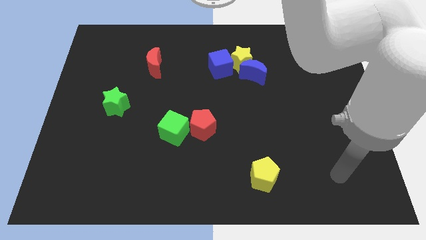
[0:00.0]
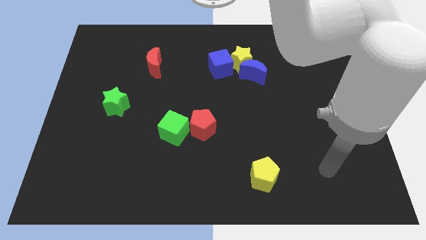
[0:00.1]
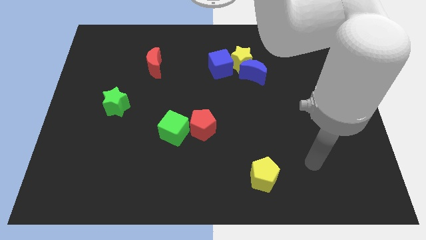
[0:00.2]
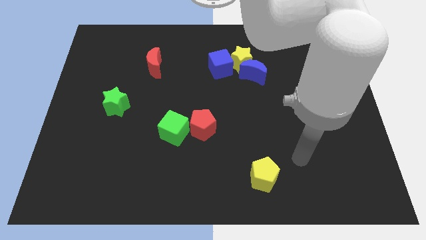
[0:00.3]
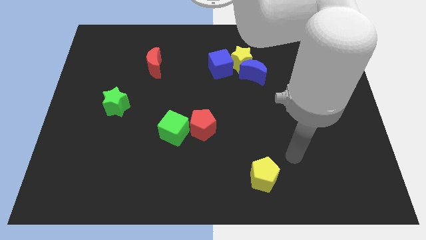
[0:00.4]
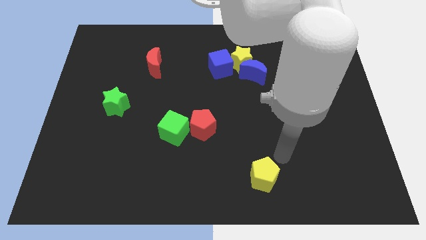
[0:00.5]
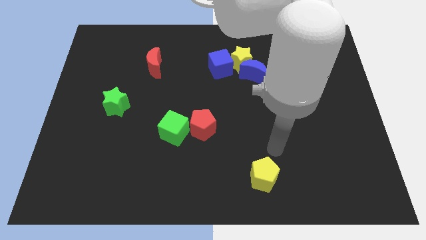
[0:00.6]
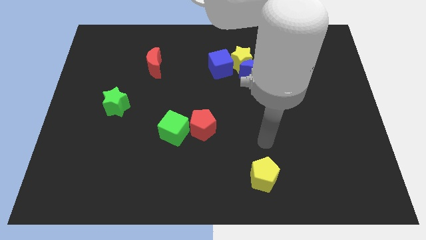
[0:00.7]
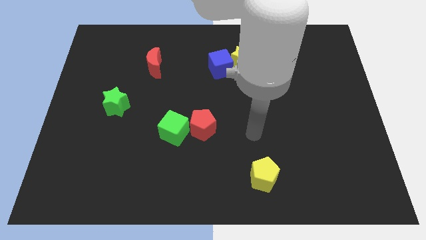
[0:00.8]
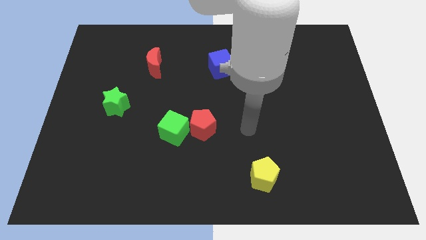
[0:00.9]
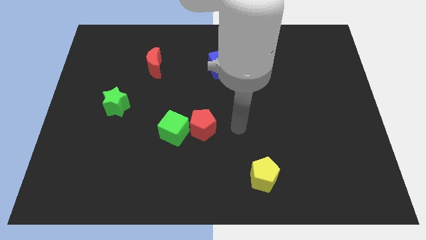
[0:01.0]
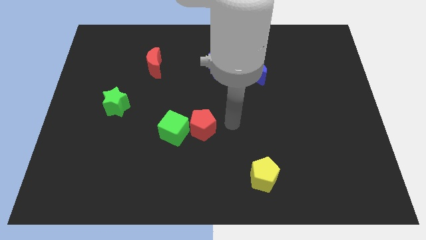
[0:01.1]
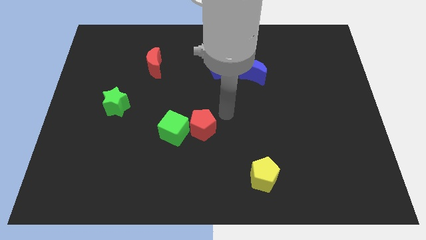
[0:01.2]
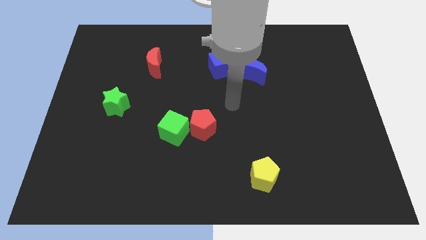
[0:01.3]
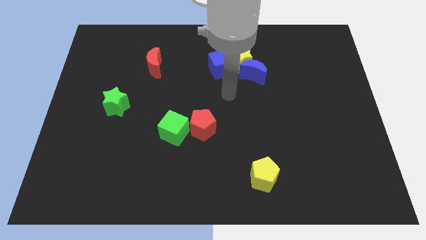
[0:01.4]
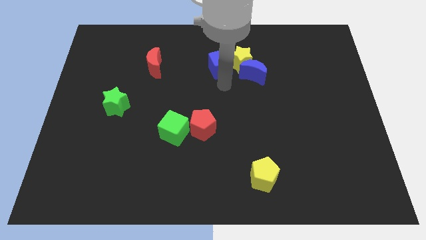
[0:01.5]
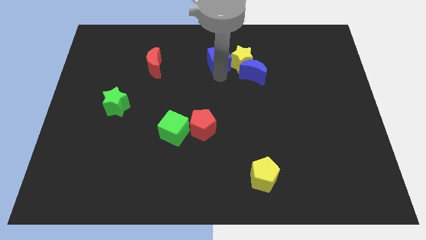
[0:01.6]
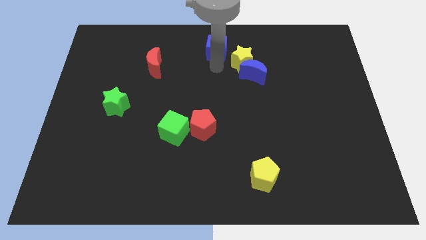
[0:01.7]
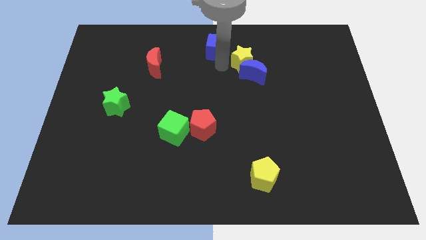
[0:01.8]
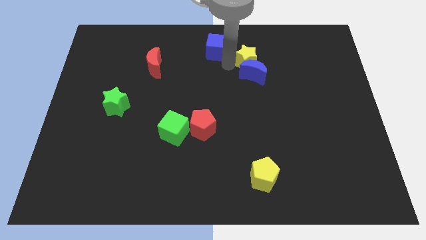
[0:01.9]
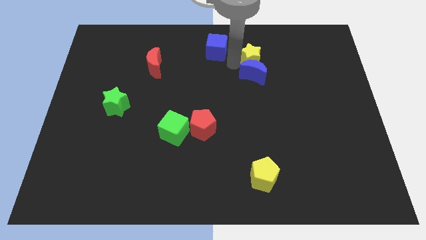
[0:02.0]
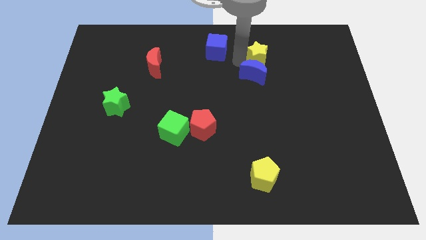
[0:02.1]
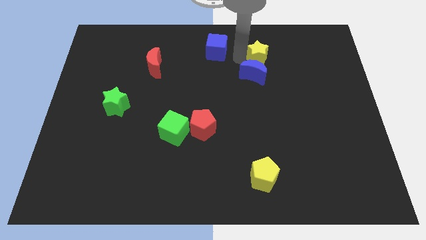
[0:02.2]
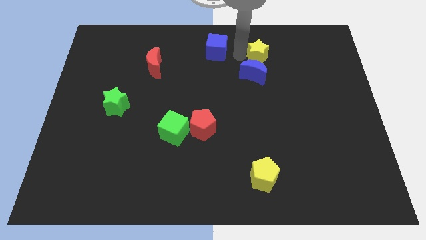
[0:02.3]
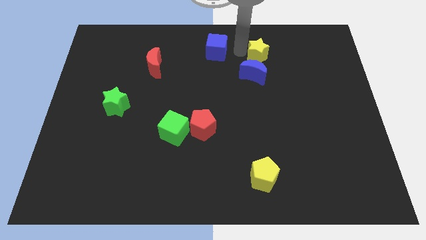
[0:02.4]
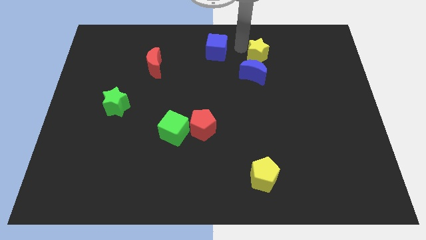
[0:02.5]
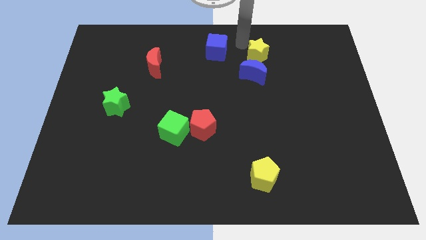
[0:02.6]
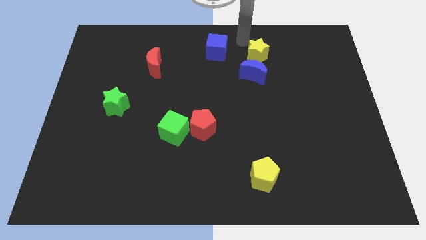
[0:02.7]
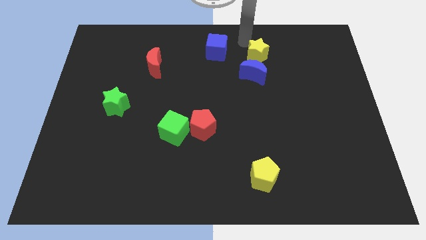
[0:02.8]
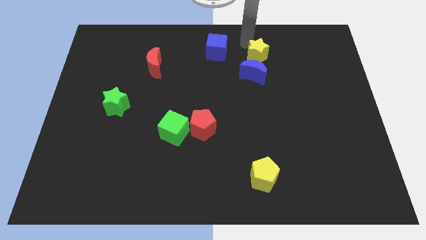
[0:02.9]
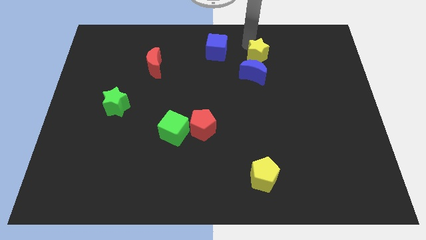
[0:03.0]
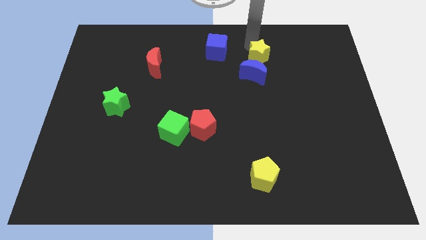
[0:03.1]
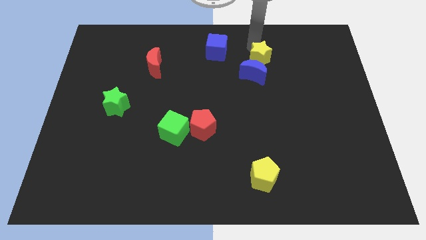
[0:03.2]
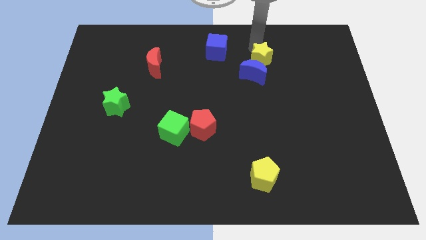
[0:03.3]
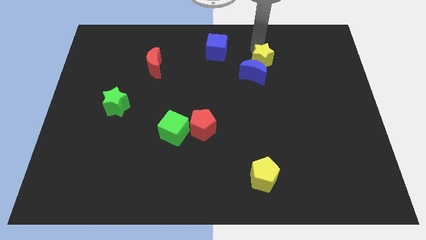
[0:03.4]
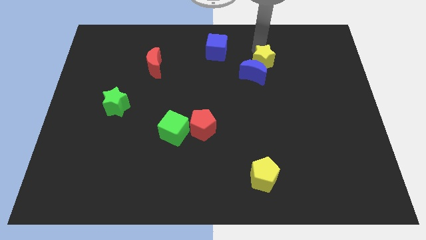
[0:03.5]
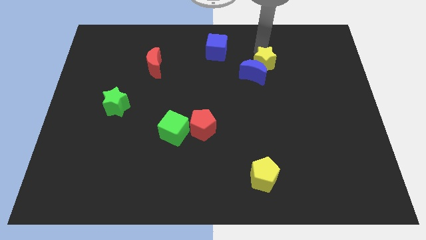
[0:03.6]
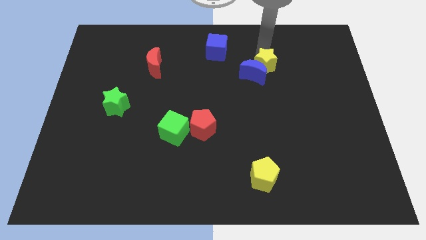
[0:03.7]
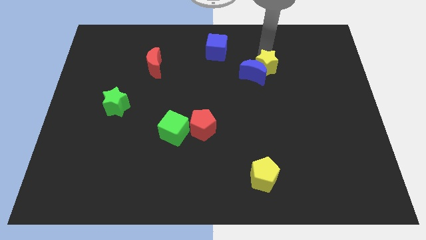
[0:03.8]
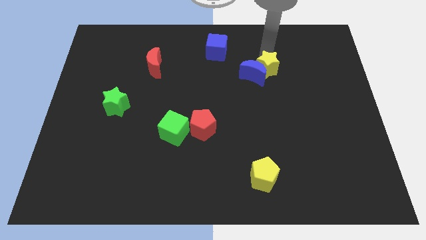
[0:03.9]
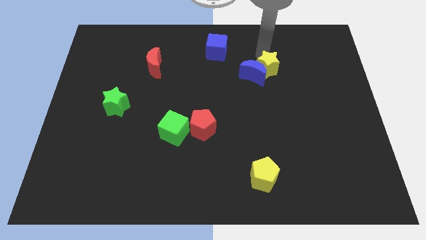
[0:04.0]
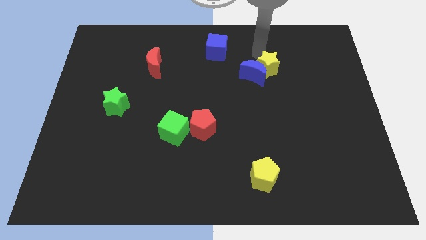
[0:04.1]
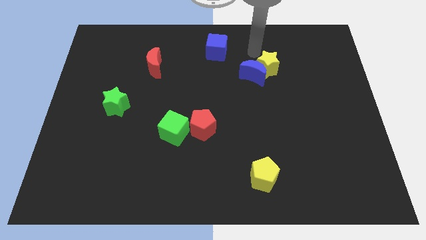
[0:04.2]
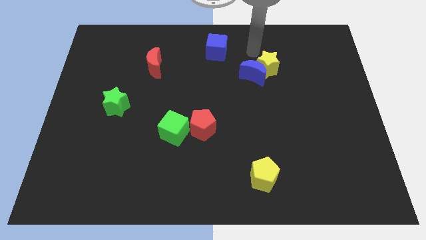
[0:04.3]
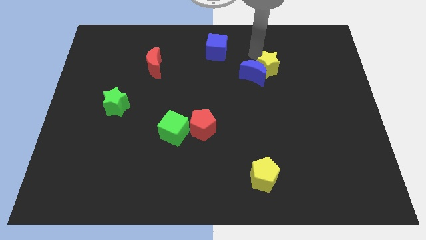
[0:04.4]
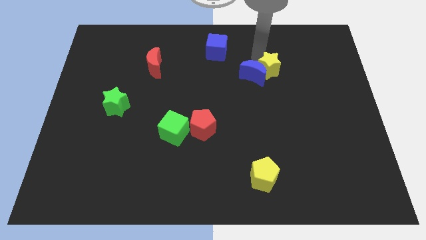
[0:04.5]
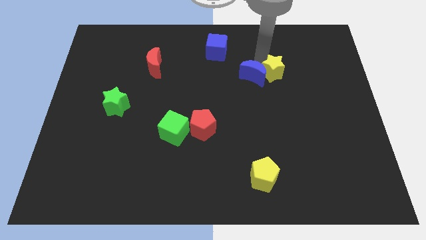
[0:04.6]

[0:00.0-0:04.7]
slide the yellow star diagonally down and to the right of the blue moon

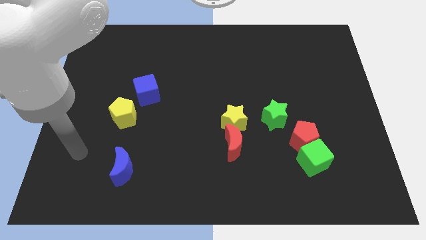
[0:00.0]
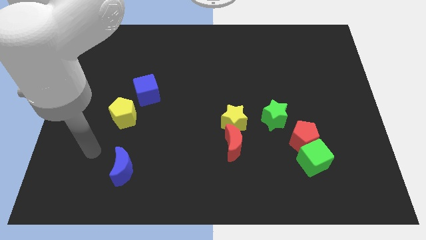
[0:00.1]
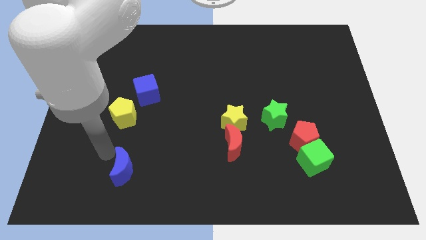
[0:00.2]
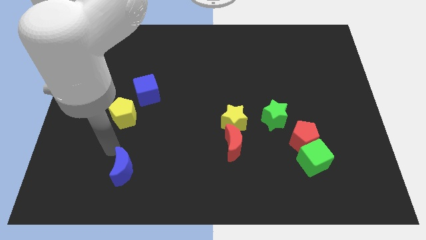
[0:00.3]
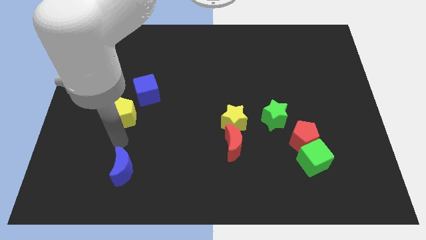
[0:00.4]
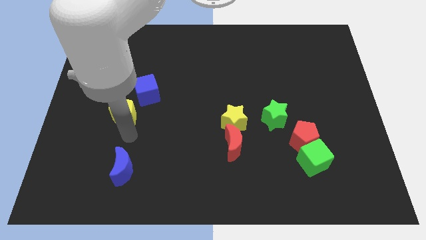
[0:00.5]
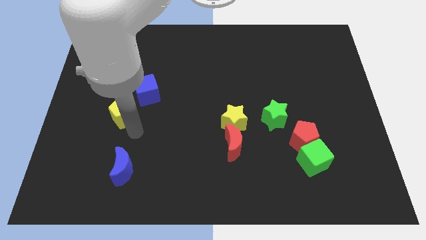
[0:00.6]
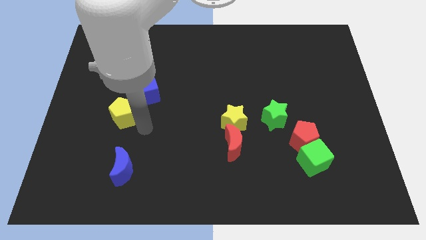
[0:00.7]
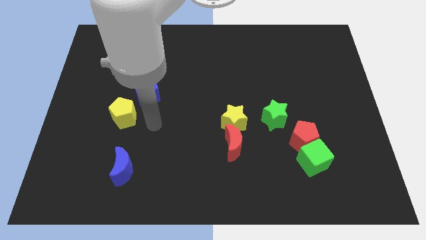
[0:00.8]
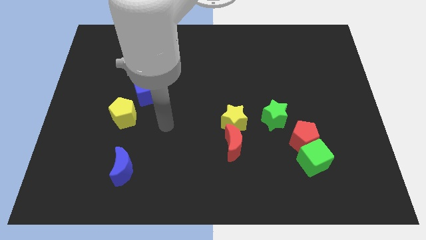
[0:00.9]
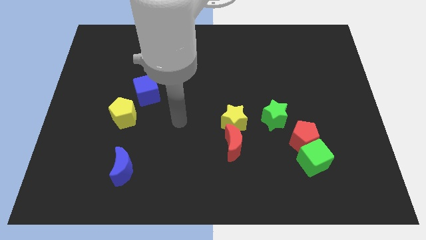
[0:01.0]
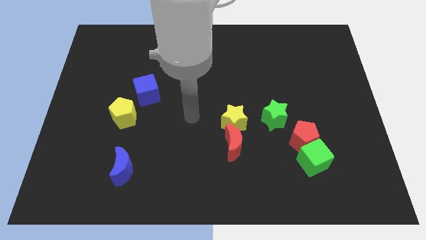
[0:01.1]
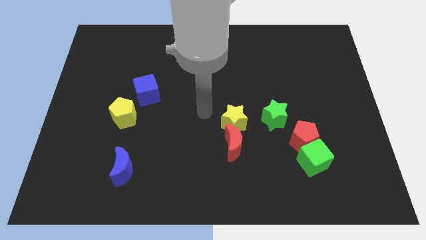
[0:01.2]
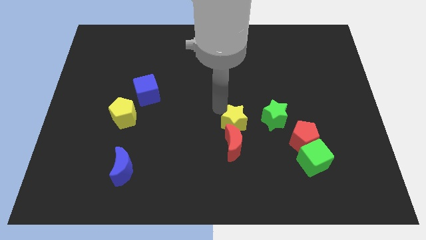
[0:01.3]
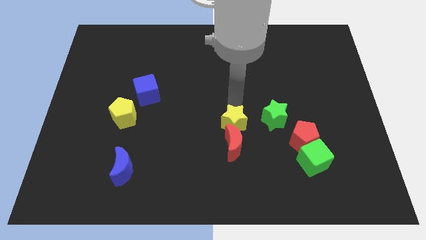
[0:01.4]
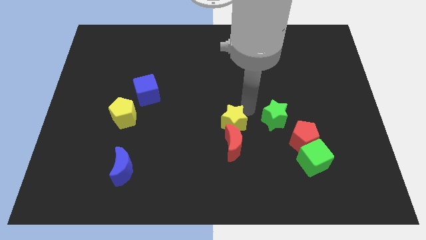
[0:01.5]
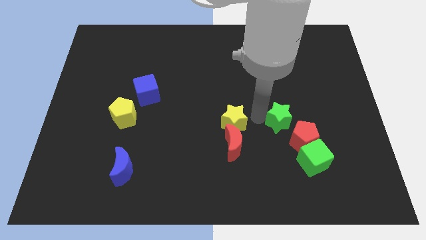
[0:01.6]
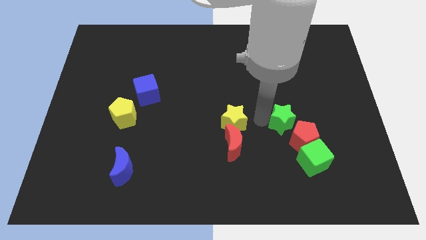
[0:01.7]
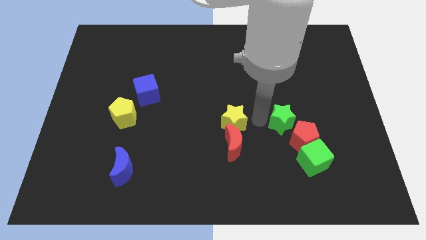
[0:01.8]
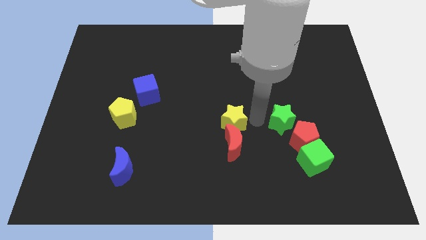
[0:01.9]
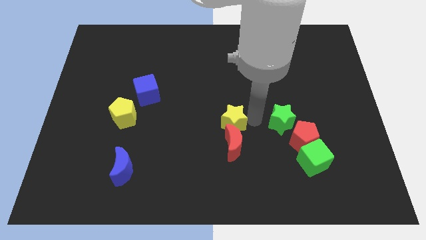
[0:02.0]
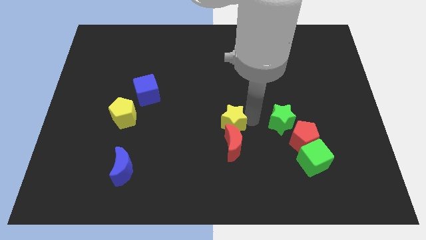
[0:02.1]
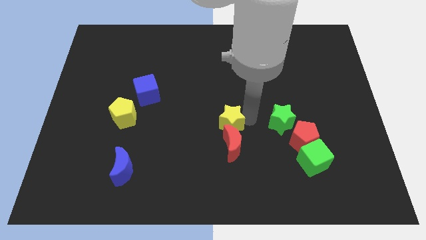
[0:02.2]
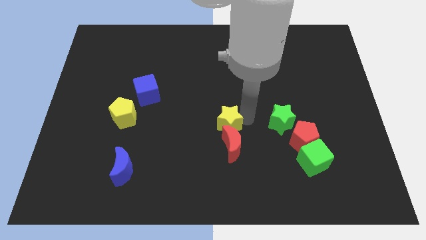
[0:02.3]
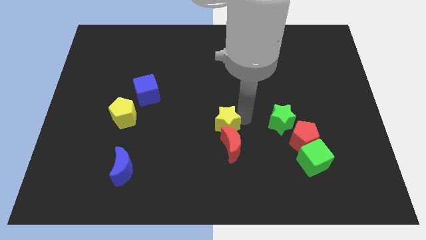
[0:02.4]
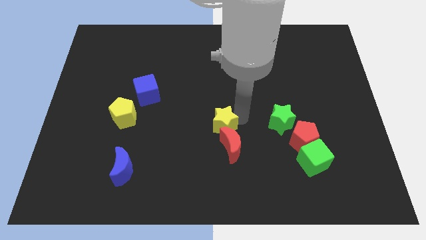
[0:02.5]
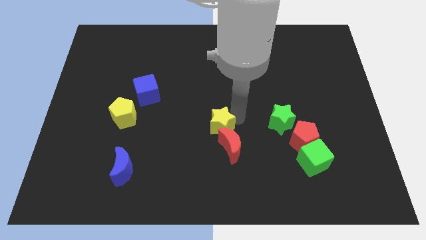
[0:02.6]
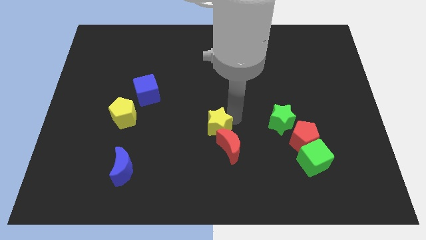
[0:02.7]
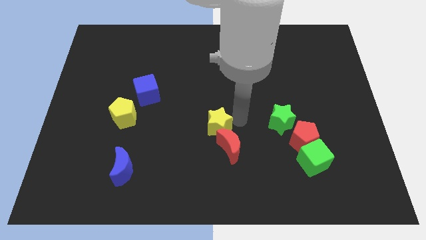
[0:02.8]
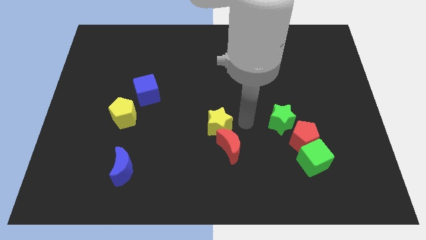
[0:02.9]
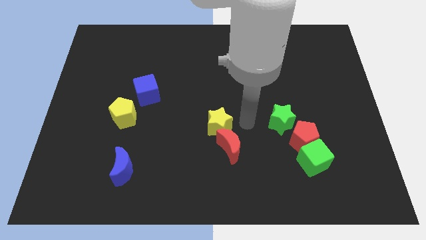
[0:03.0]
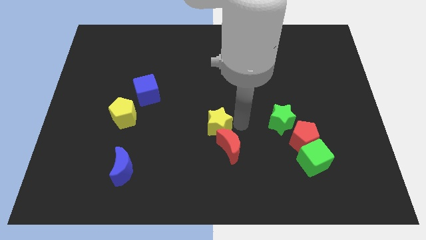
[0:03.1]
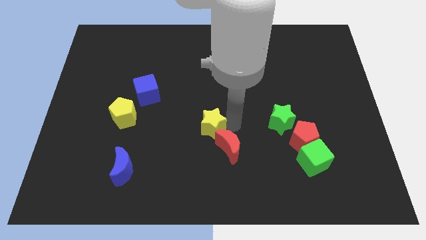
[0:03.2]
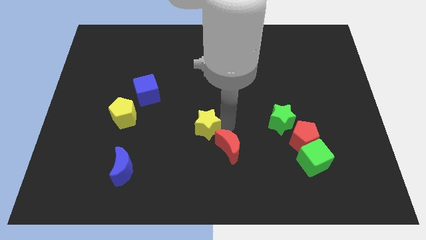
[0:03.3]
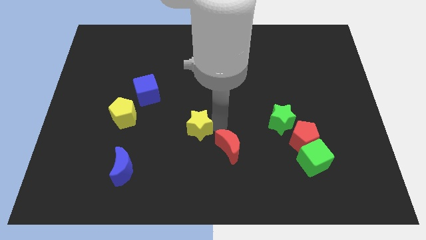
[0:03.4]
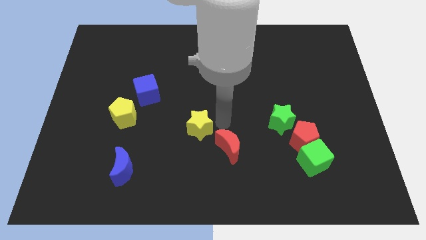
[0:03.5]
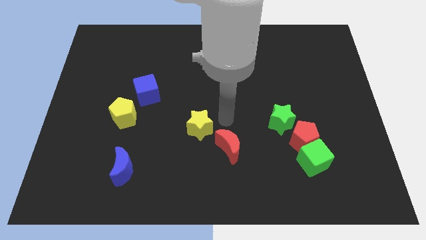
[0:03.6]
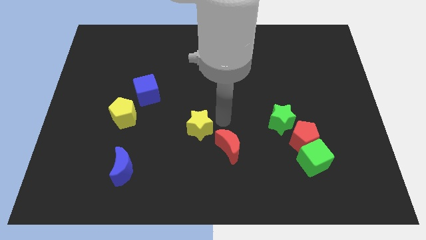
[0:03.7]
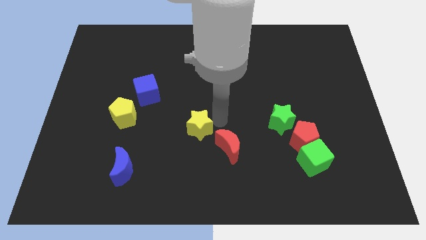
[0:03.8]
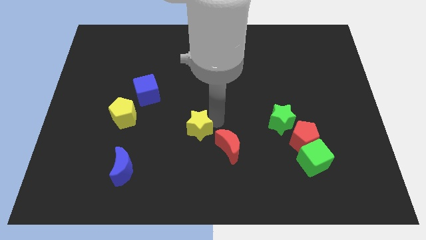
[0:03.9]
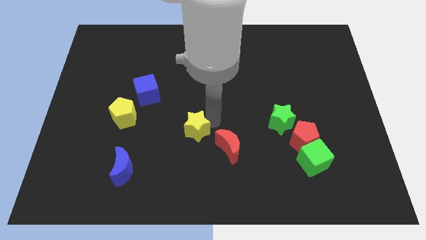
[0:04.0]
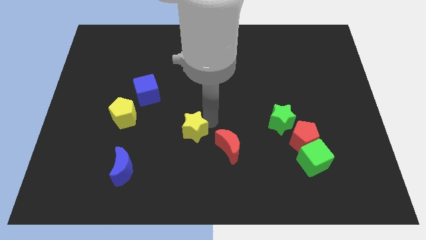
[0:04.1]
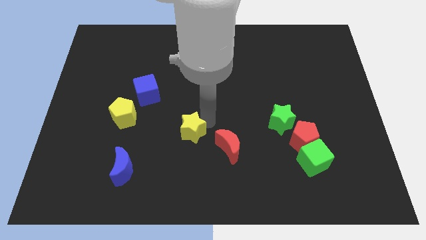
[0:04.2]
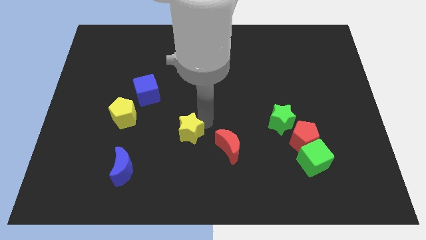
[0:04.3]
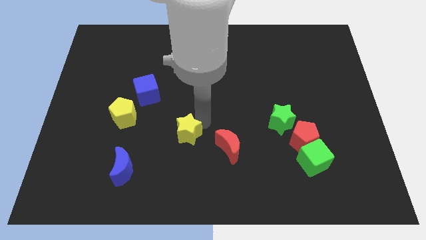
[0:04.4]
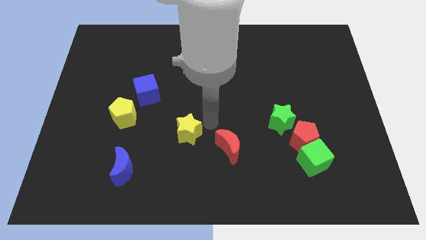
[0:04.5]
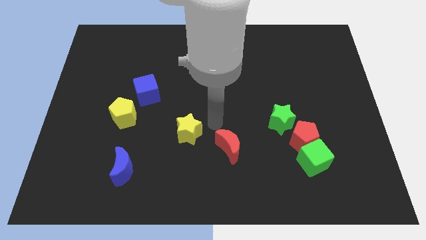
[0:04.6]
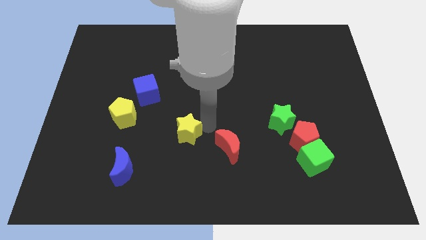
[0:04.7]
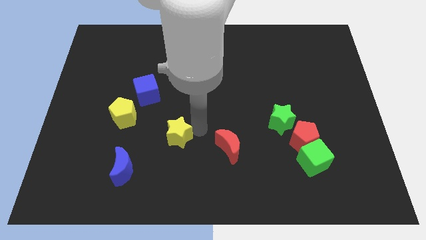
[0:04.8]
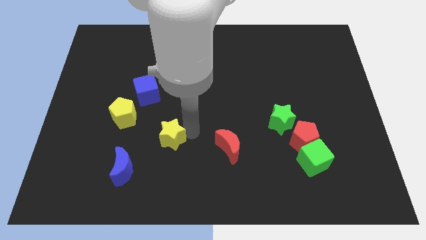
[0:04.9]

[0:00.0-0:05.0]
slide the yellow star to the top right side of the blue moon
